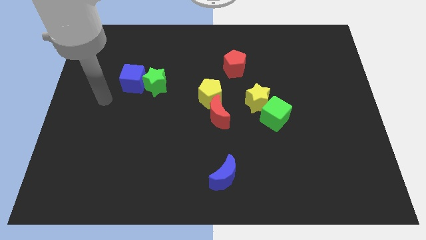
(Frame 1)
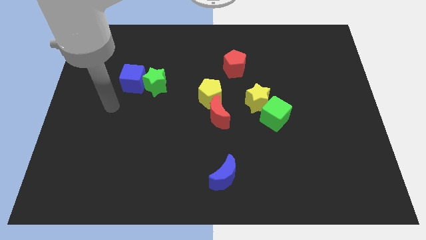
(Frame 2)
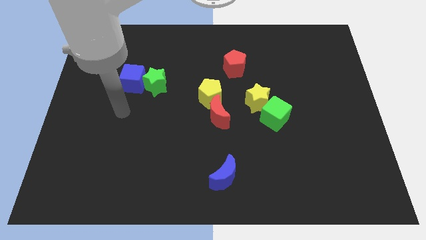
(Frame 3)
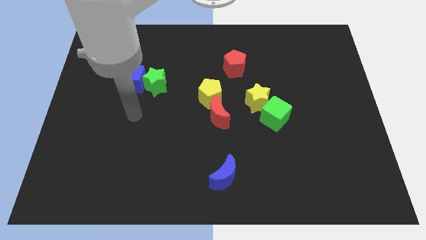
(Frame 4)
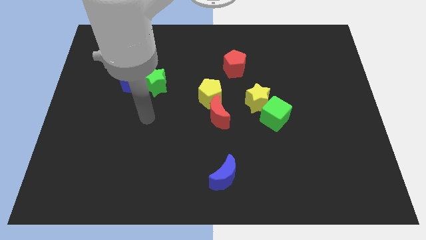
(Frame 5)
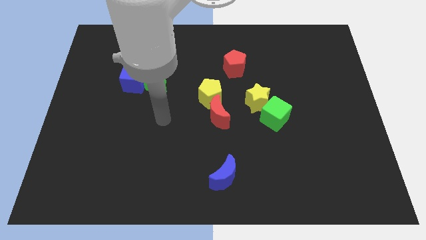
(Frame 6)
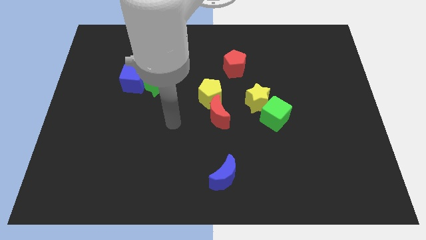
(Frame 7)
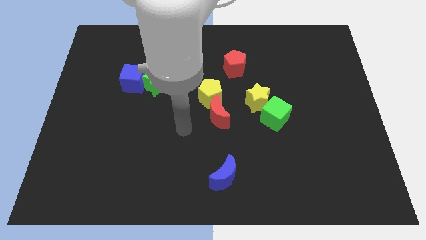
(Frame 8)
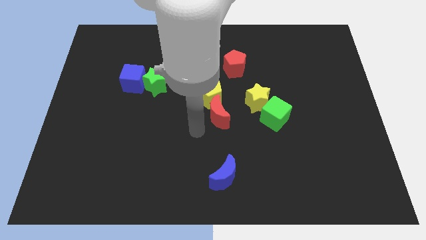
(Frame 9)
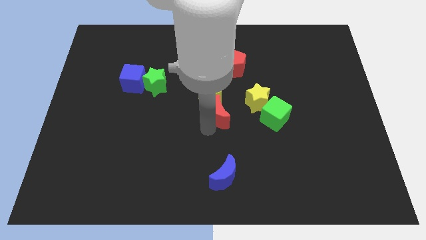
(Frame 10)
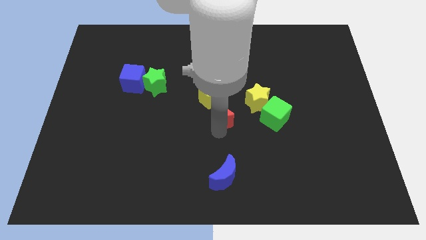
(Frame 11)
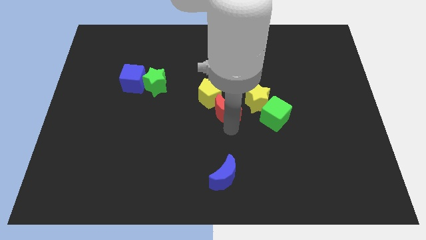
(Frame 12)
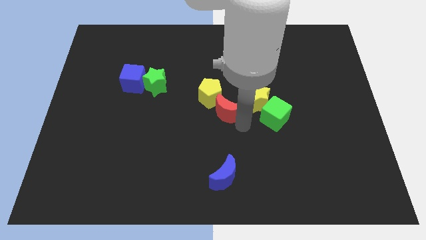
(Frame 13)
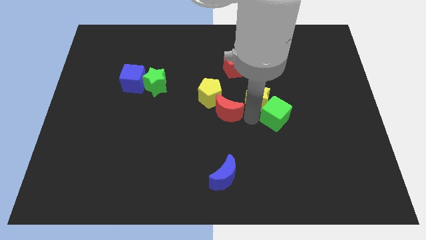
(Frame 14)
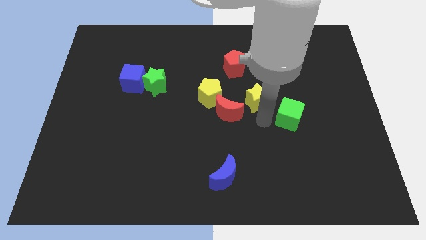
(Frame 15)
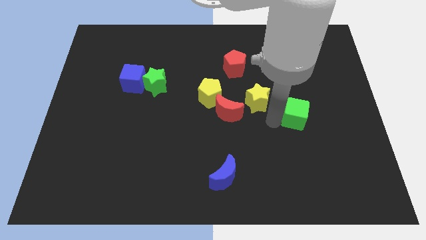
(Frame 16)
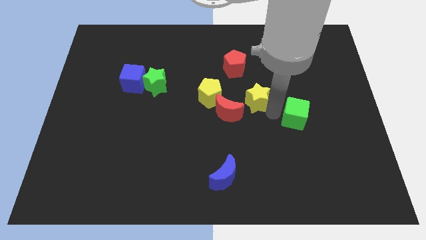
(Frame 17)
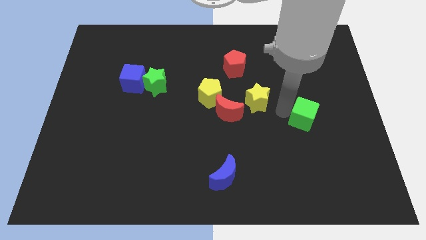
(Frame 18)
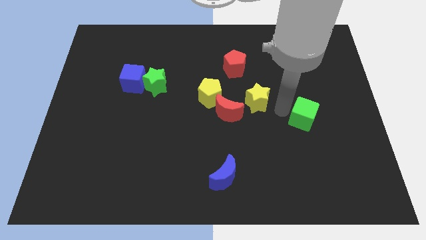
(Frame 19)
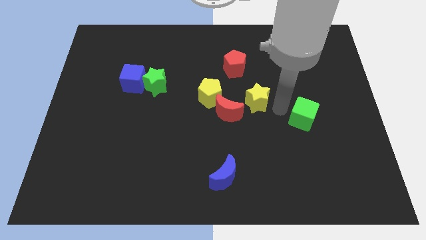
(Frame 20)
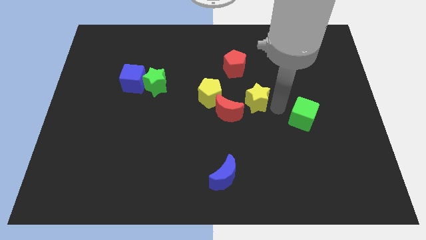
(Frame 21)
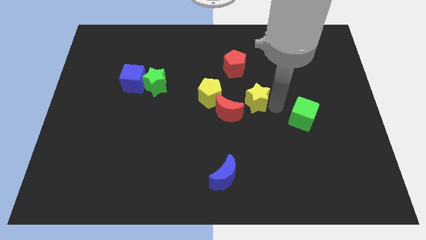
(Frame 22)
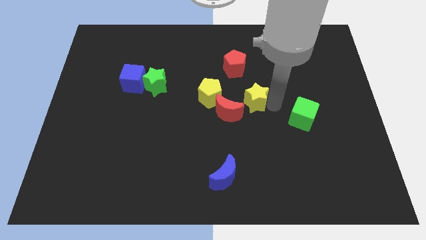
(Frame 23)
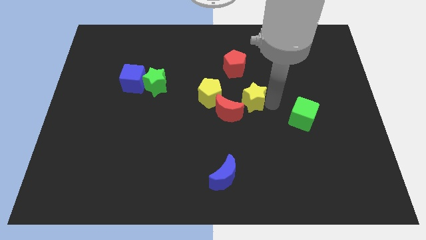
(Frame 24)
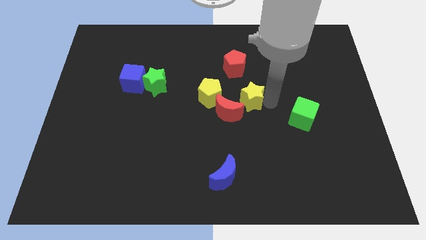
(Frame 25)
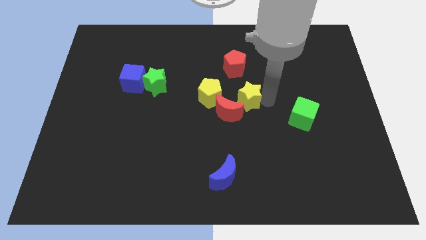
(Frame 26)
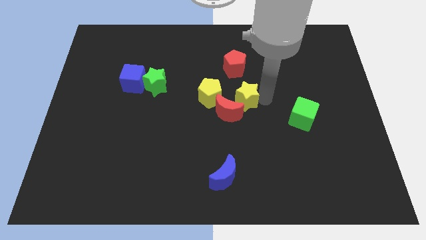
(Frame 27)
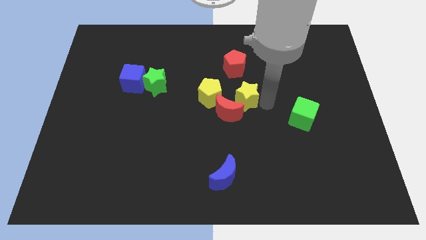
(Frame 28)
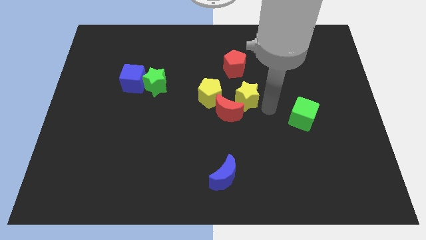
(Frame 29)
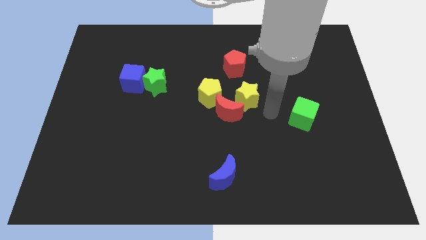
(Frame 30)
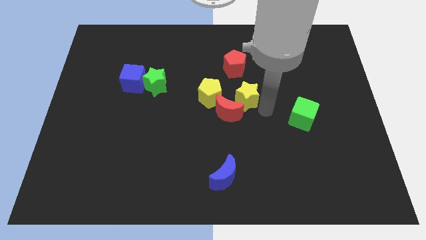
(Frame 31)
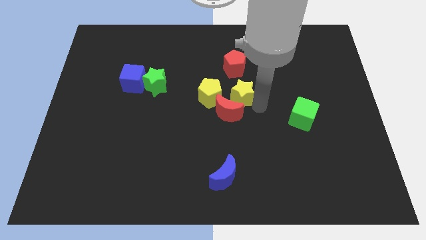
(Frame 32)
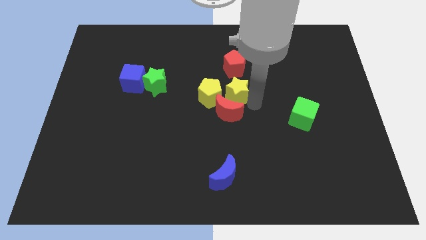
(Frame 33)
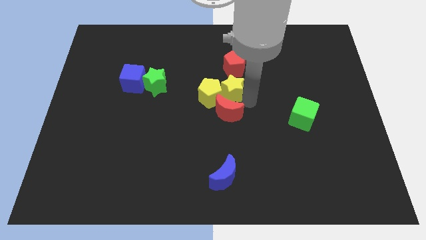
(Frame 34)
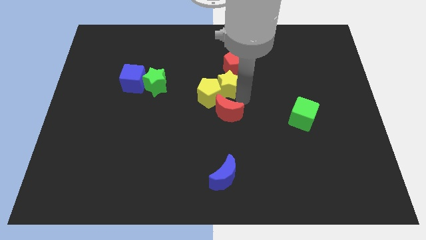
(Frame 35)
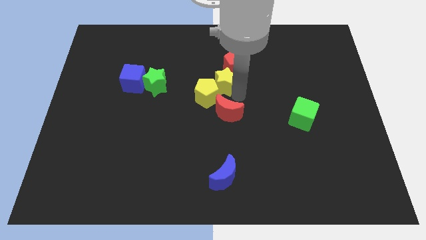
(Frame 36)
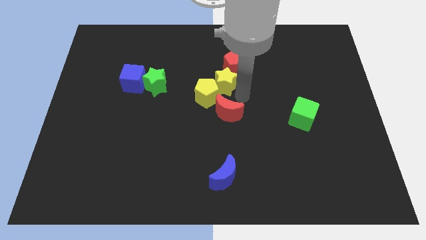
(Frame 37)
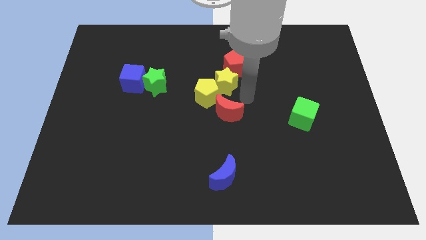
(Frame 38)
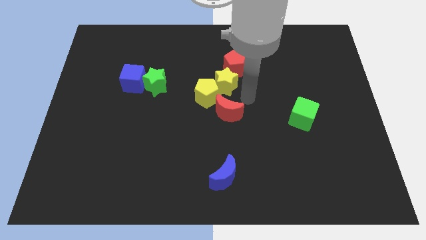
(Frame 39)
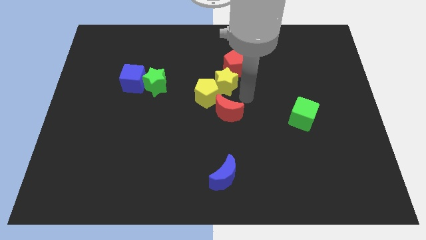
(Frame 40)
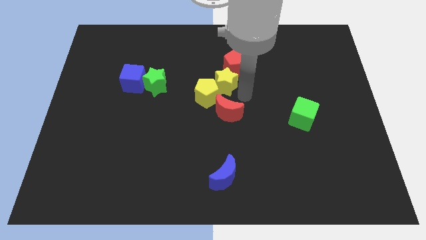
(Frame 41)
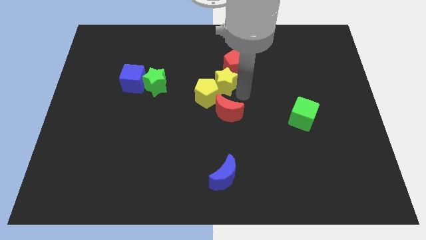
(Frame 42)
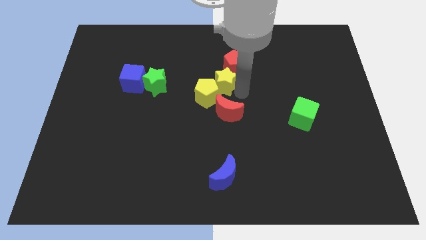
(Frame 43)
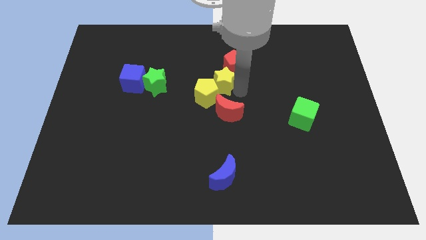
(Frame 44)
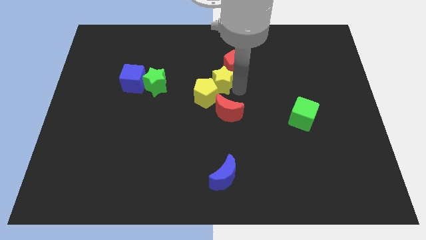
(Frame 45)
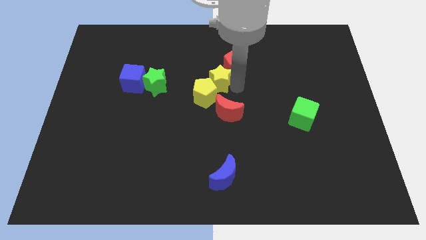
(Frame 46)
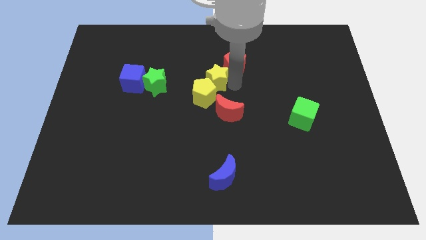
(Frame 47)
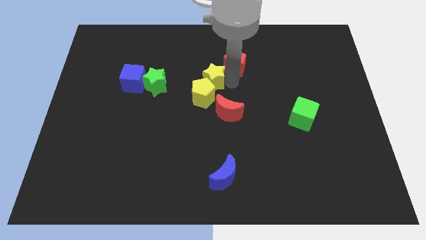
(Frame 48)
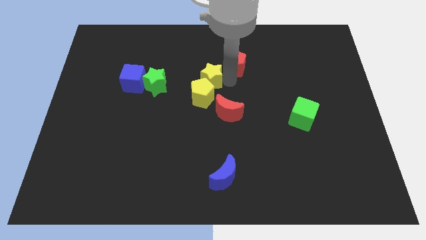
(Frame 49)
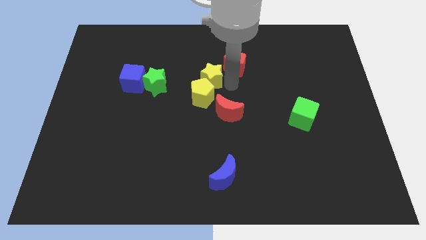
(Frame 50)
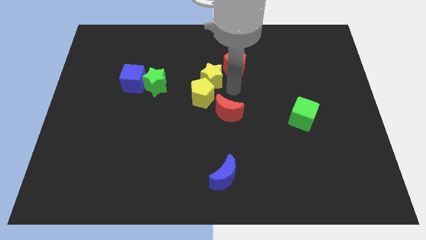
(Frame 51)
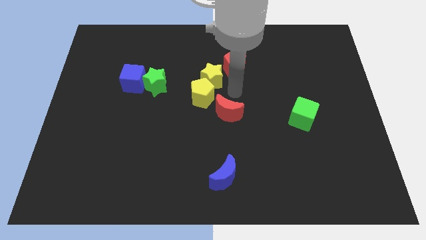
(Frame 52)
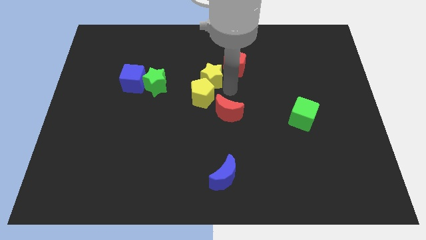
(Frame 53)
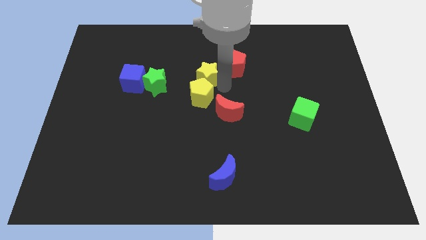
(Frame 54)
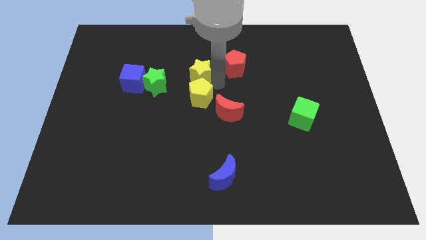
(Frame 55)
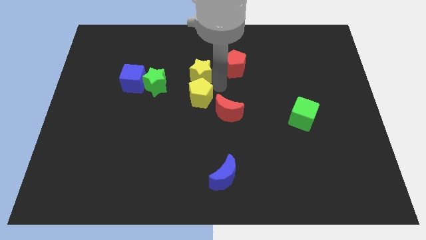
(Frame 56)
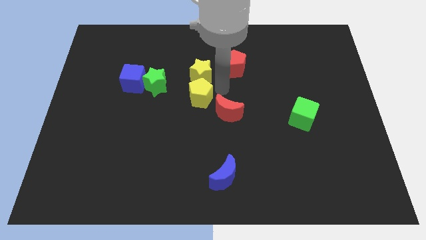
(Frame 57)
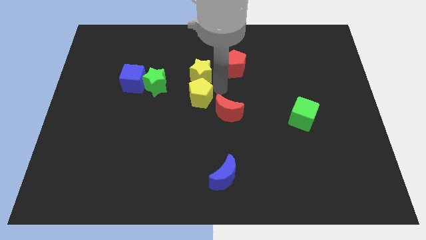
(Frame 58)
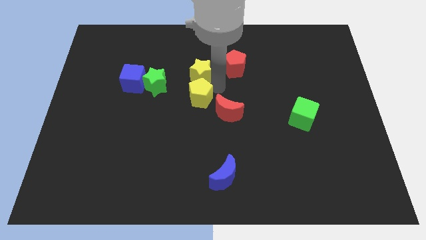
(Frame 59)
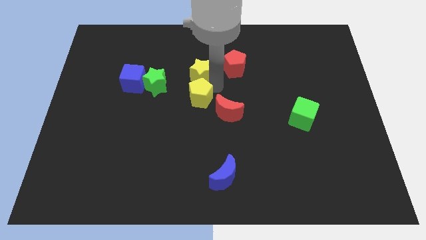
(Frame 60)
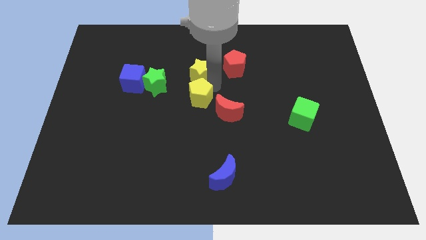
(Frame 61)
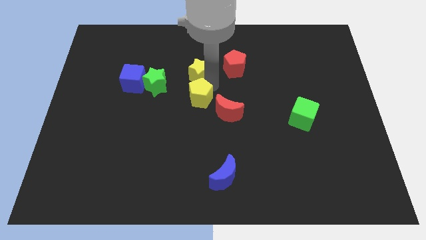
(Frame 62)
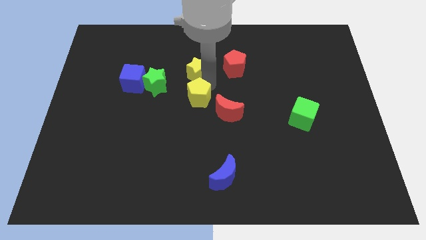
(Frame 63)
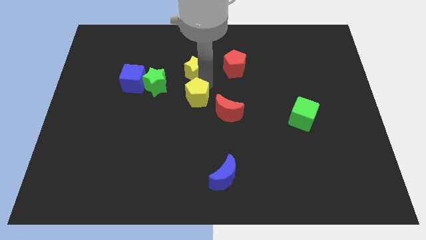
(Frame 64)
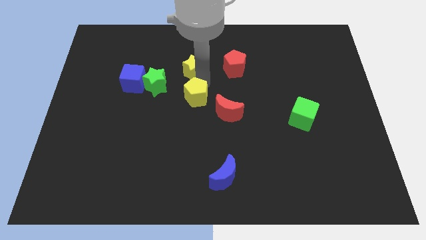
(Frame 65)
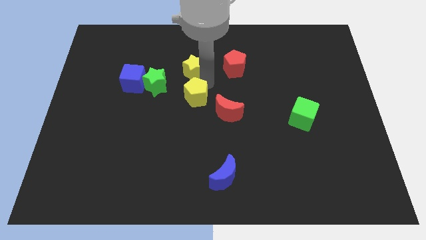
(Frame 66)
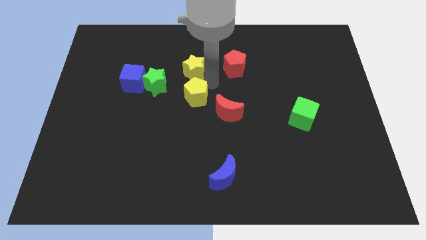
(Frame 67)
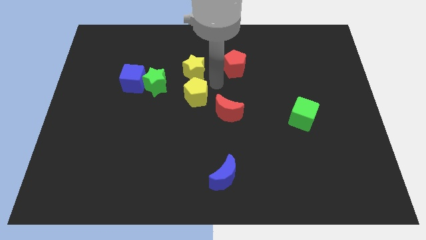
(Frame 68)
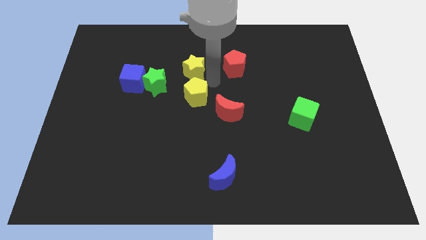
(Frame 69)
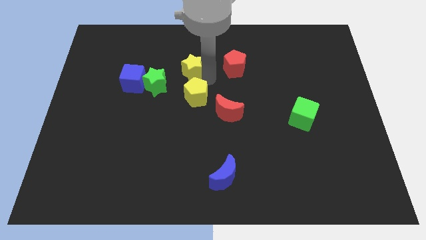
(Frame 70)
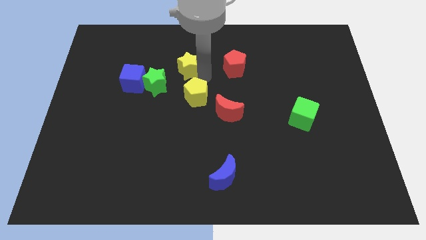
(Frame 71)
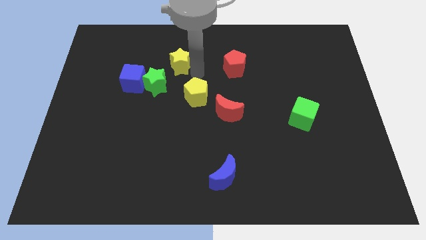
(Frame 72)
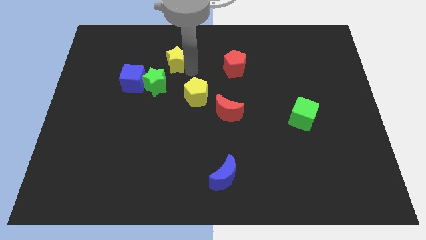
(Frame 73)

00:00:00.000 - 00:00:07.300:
slide the yellow star to the top side of the green star
